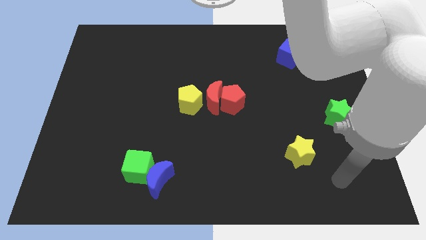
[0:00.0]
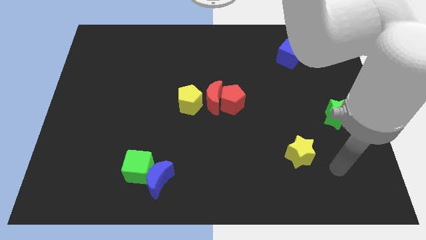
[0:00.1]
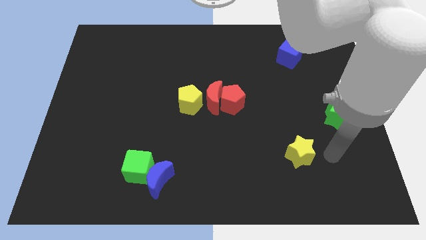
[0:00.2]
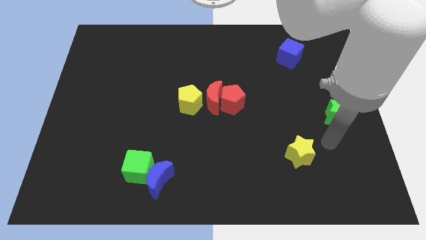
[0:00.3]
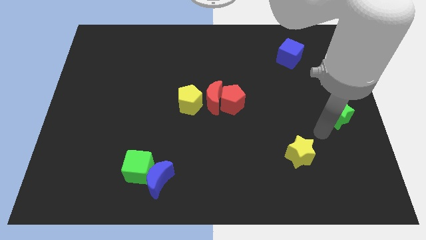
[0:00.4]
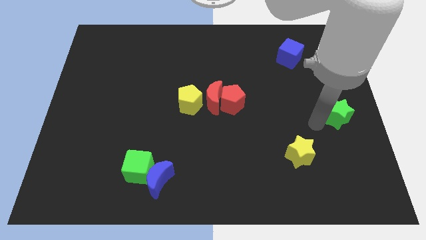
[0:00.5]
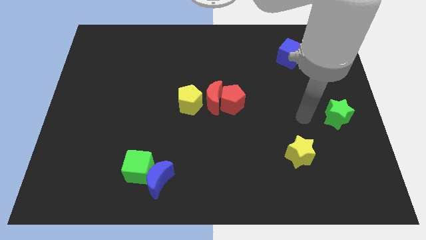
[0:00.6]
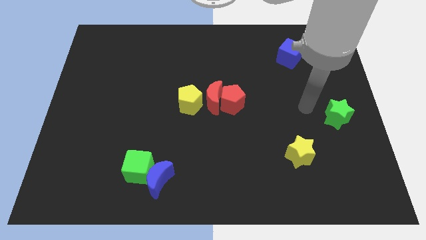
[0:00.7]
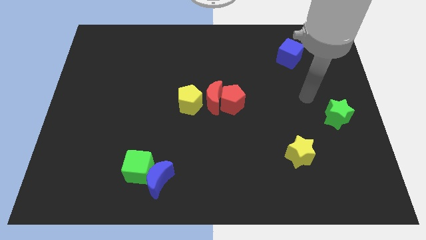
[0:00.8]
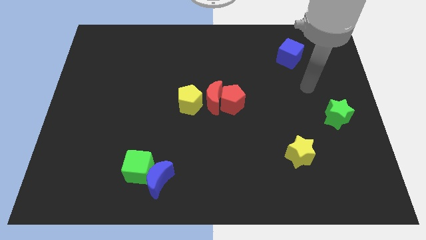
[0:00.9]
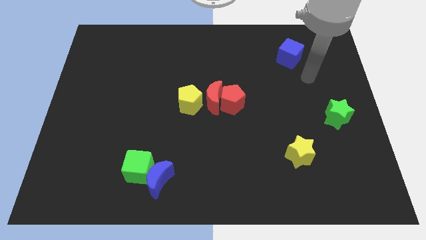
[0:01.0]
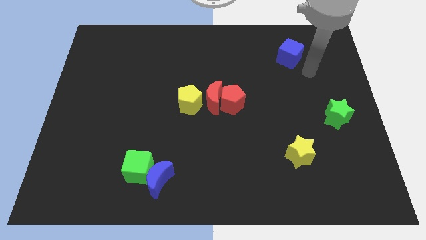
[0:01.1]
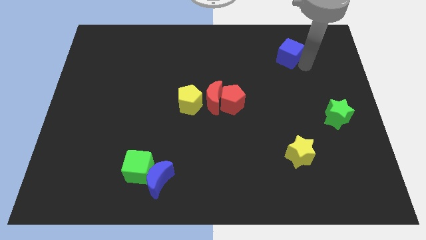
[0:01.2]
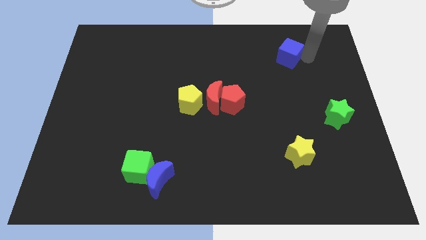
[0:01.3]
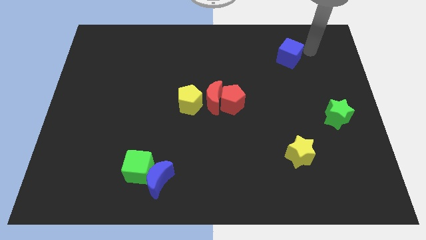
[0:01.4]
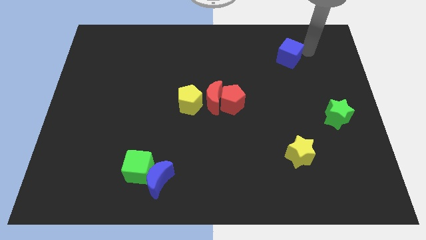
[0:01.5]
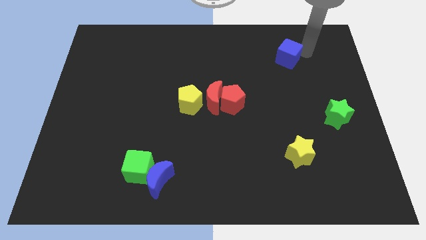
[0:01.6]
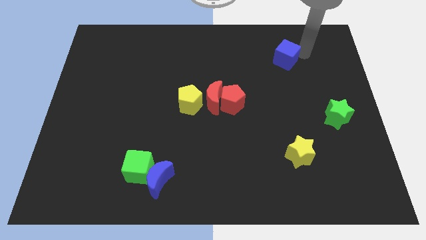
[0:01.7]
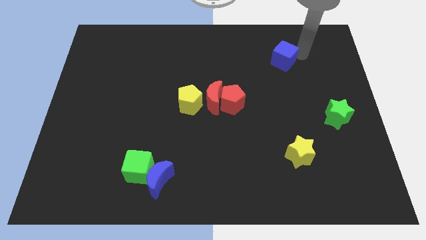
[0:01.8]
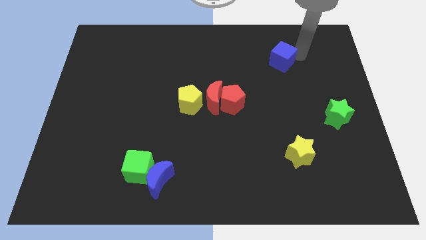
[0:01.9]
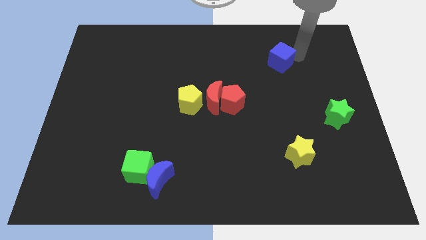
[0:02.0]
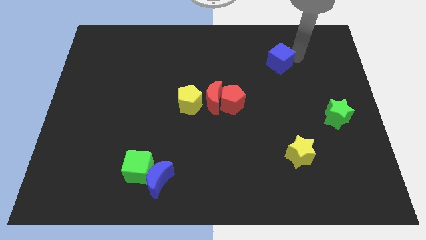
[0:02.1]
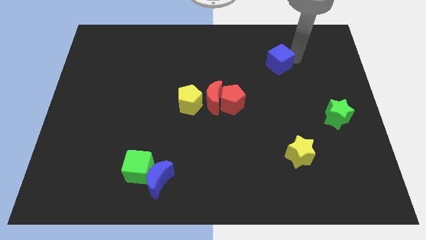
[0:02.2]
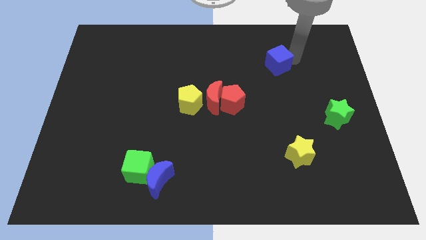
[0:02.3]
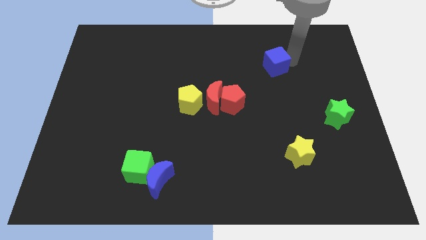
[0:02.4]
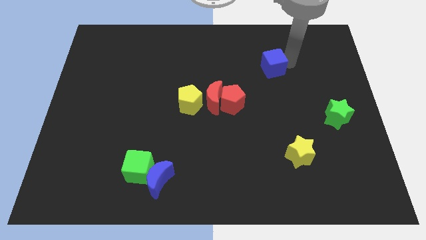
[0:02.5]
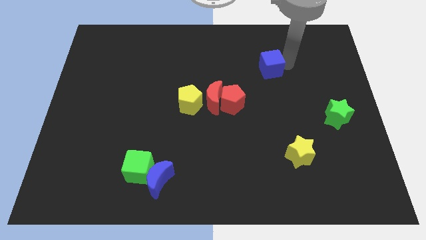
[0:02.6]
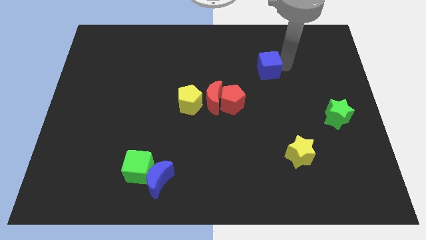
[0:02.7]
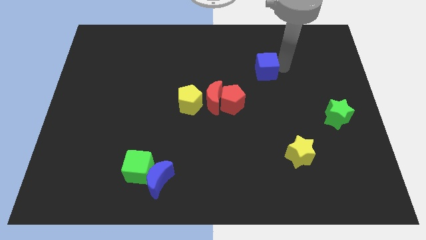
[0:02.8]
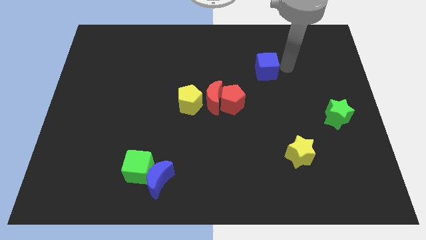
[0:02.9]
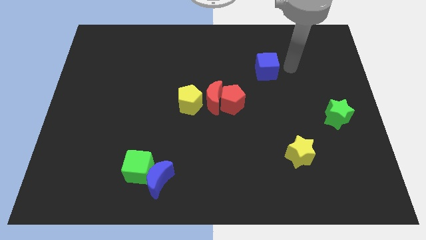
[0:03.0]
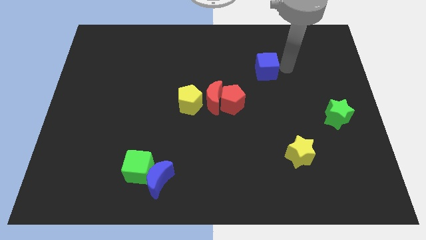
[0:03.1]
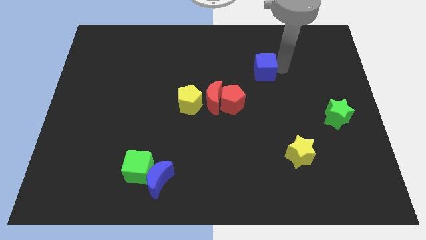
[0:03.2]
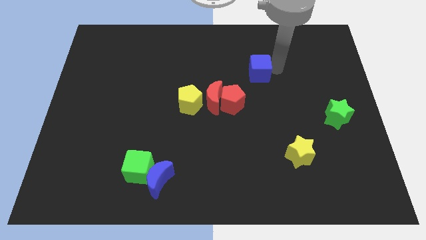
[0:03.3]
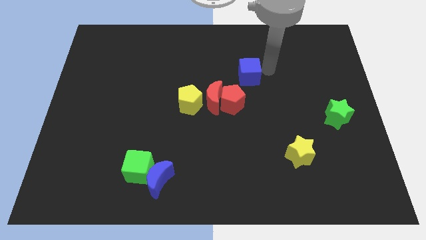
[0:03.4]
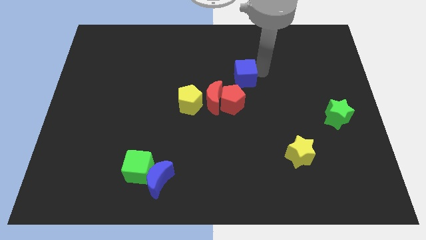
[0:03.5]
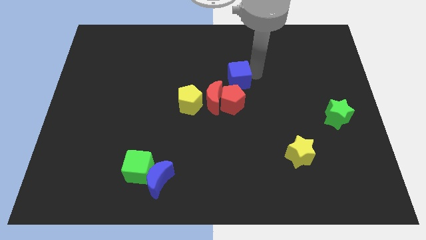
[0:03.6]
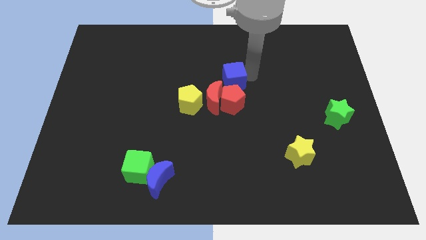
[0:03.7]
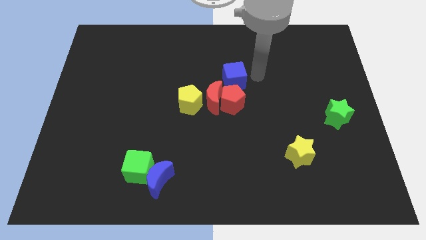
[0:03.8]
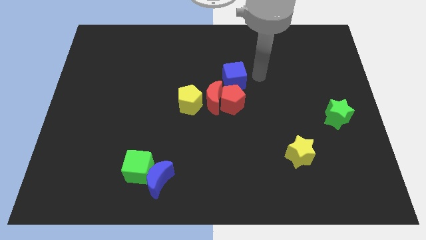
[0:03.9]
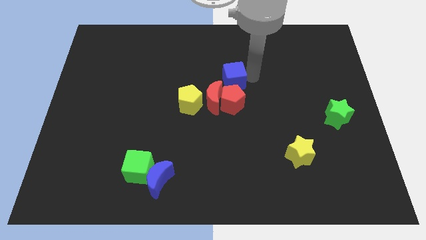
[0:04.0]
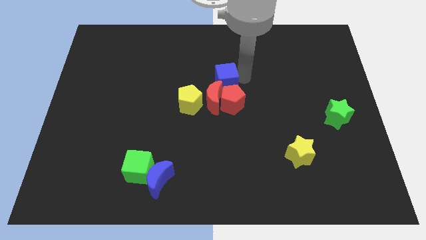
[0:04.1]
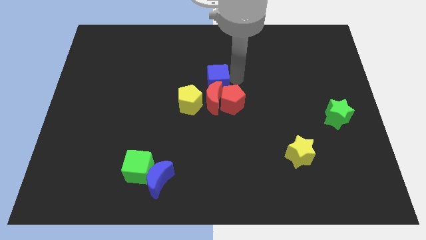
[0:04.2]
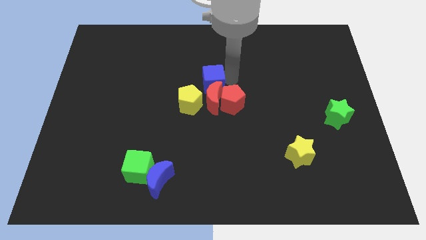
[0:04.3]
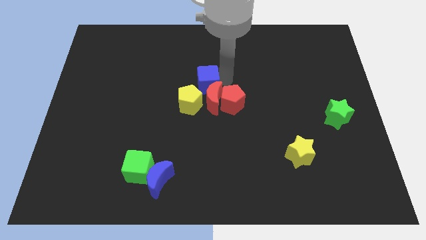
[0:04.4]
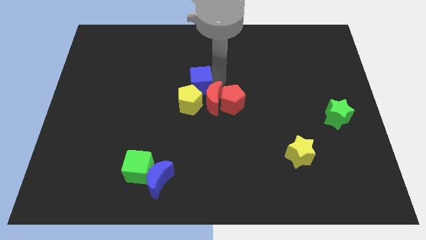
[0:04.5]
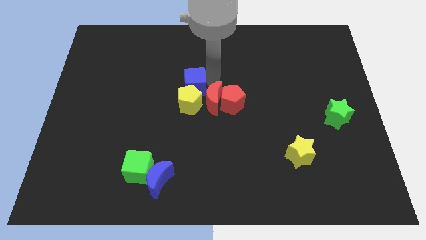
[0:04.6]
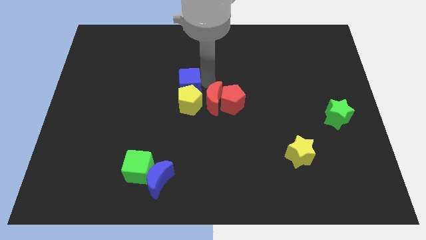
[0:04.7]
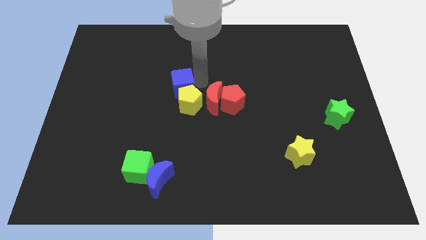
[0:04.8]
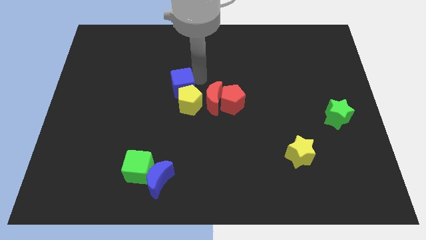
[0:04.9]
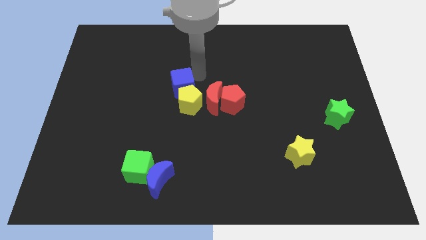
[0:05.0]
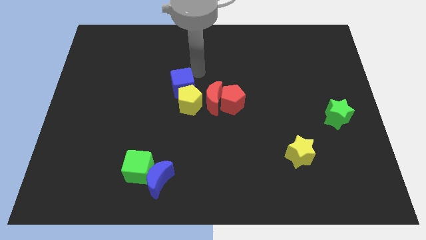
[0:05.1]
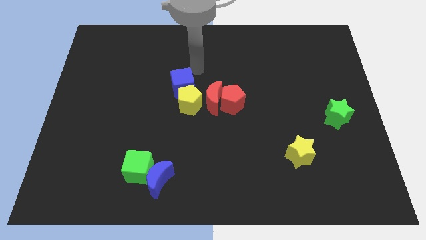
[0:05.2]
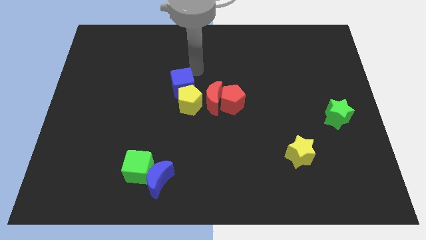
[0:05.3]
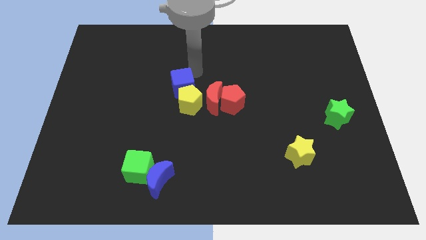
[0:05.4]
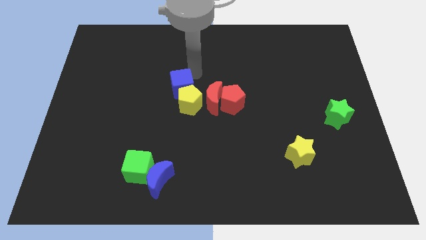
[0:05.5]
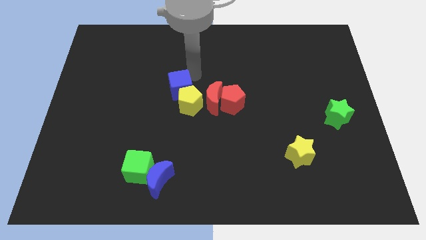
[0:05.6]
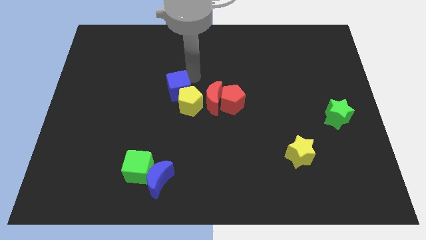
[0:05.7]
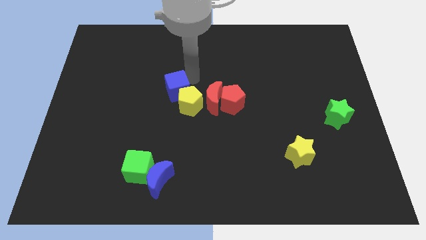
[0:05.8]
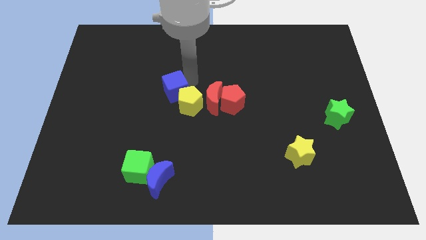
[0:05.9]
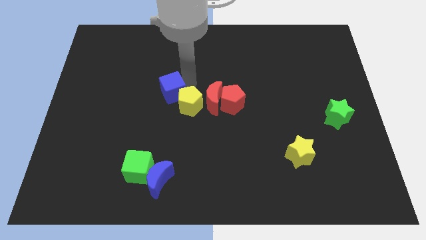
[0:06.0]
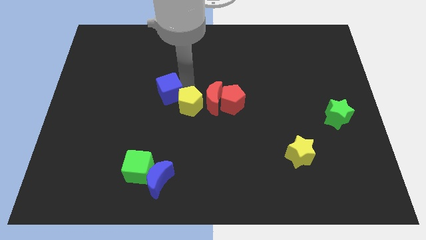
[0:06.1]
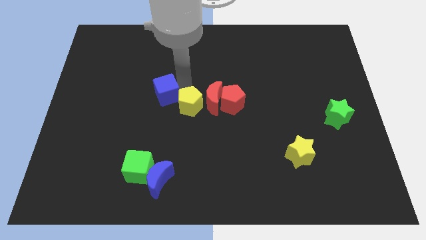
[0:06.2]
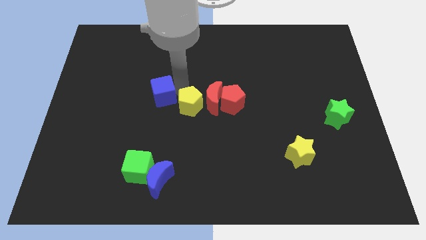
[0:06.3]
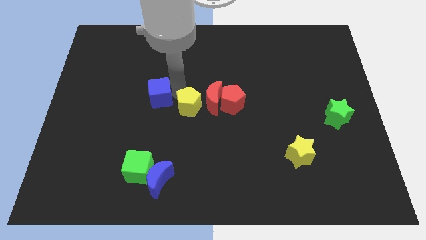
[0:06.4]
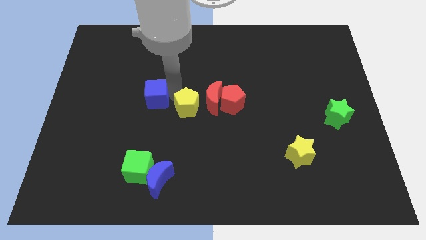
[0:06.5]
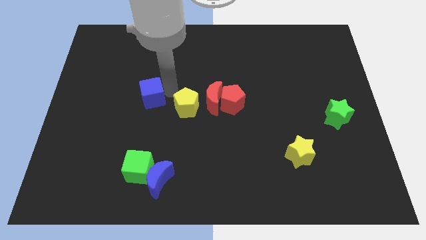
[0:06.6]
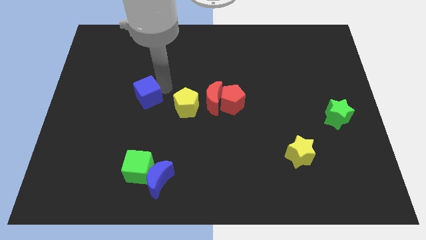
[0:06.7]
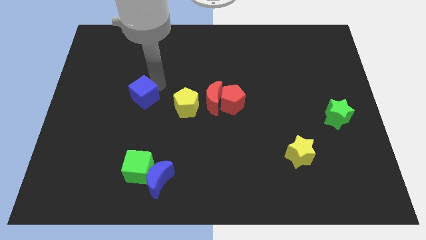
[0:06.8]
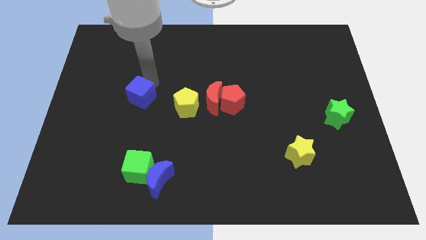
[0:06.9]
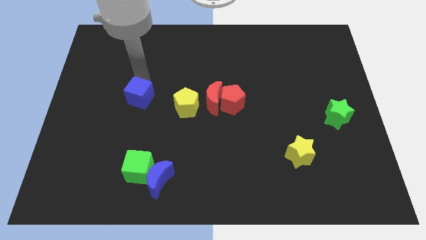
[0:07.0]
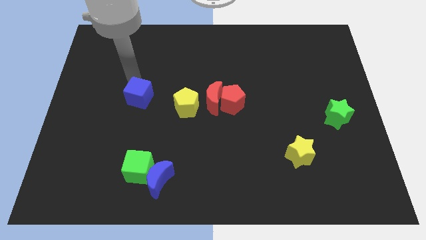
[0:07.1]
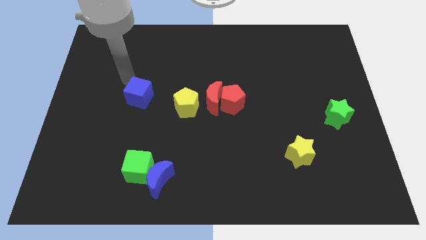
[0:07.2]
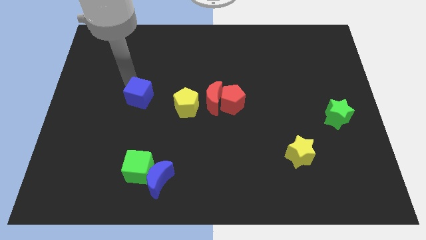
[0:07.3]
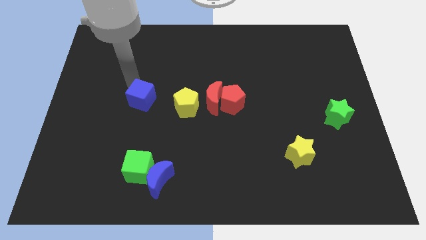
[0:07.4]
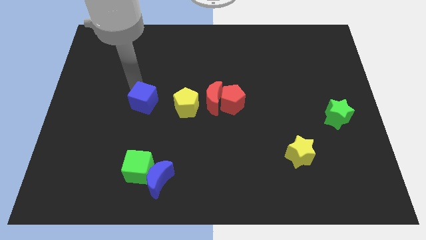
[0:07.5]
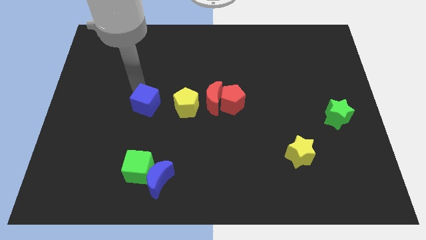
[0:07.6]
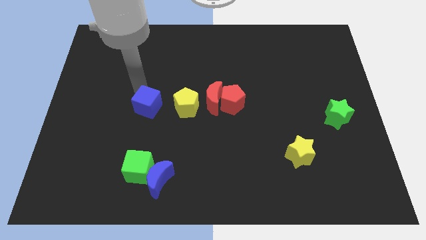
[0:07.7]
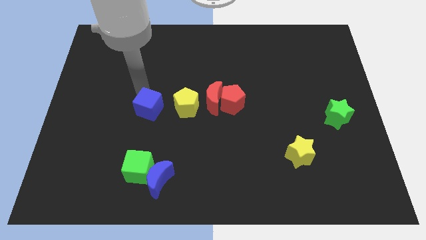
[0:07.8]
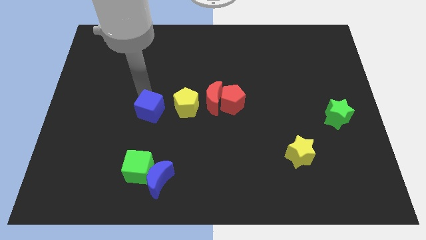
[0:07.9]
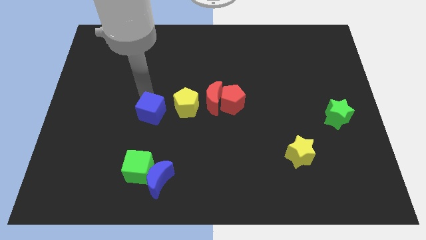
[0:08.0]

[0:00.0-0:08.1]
slide the blue cube to the bottom left of the yellow pentagon
